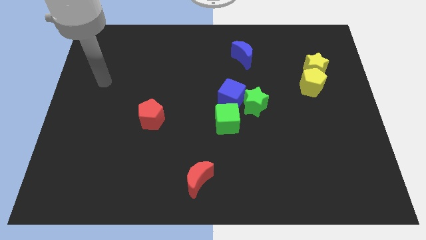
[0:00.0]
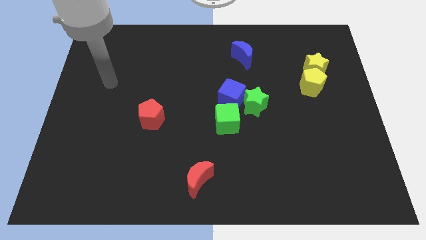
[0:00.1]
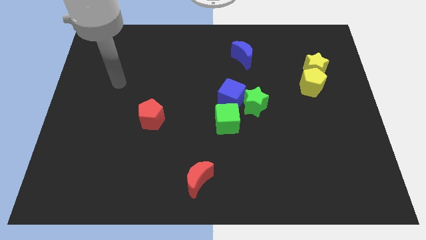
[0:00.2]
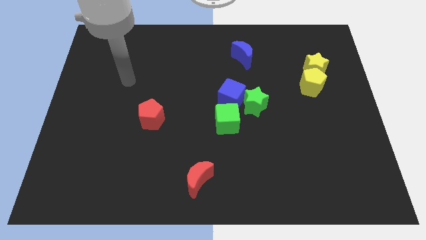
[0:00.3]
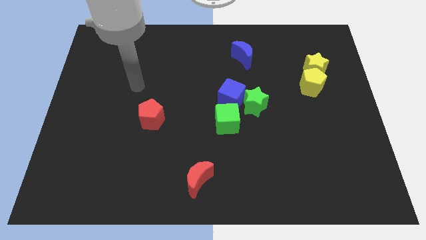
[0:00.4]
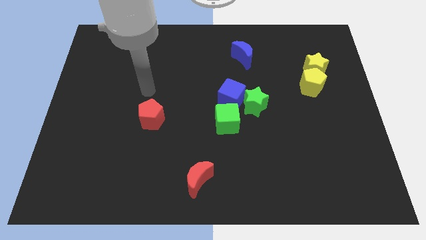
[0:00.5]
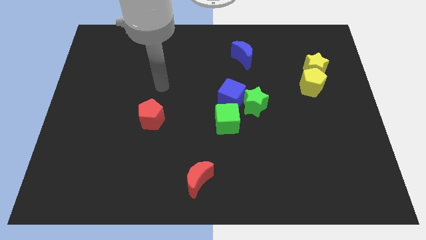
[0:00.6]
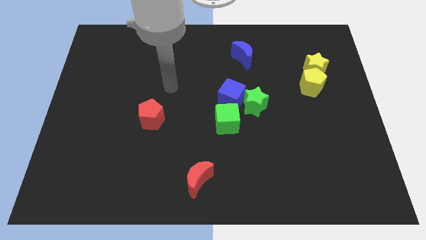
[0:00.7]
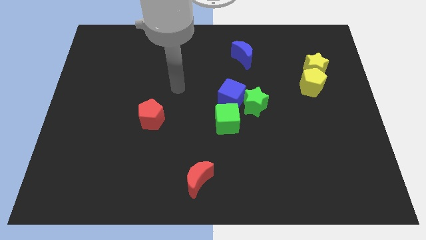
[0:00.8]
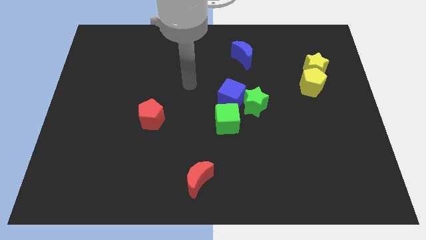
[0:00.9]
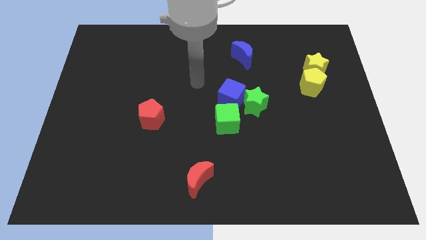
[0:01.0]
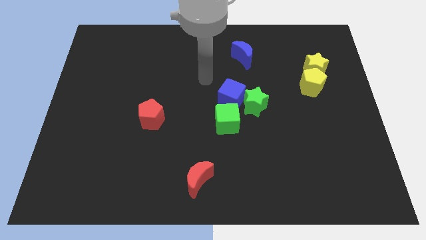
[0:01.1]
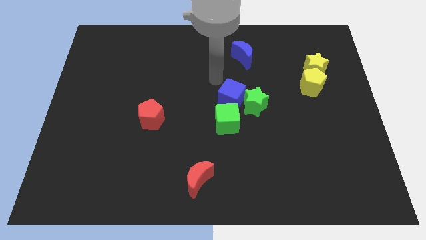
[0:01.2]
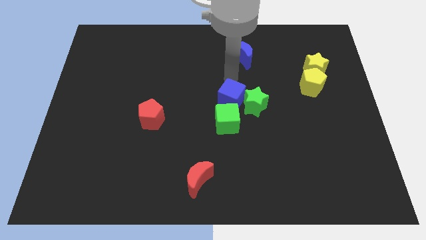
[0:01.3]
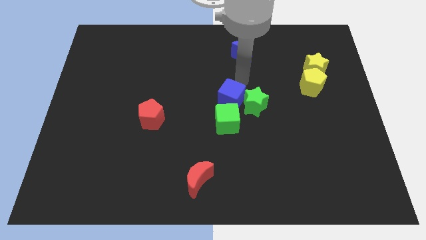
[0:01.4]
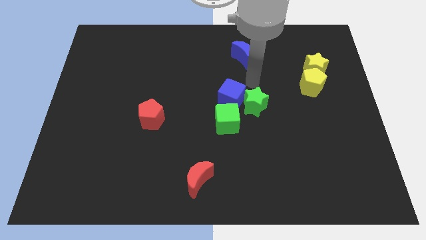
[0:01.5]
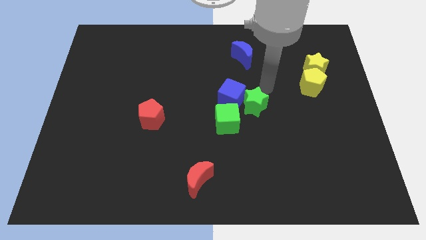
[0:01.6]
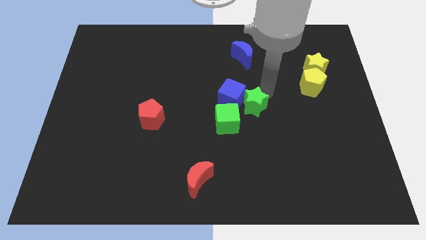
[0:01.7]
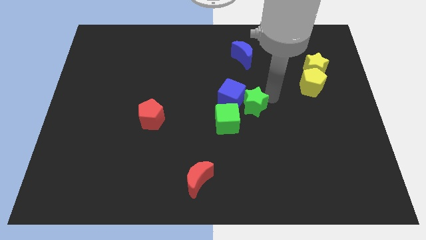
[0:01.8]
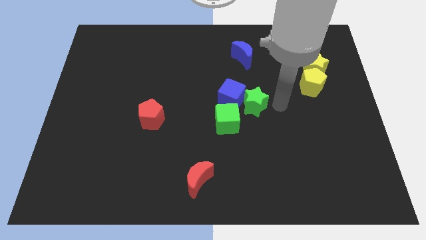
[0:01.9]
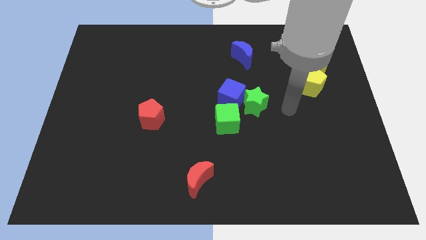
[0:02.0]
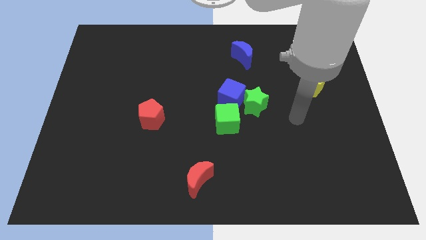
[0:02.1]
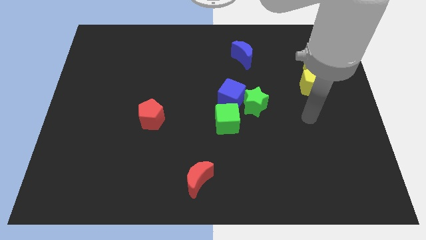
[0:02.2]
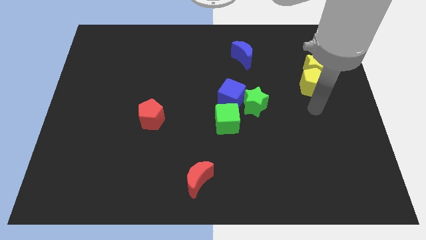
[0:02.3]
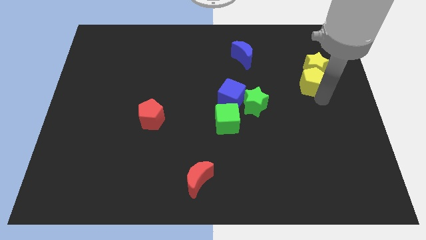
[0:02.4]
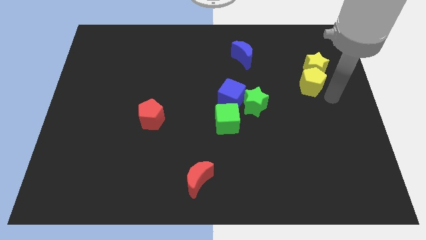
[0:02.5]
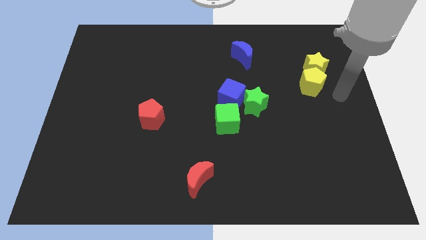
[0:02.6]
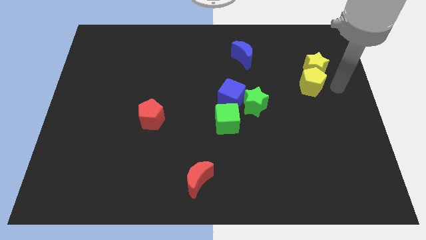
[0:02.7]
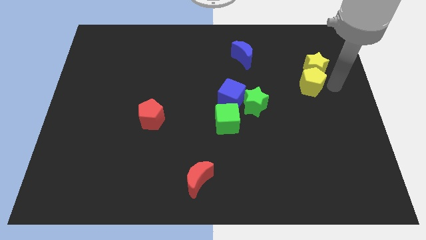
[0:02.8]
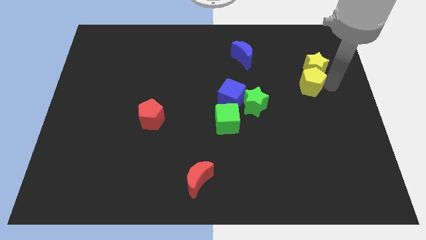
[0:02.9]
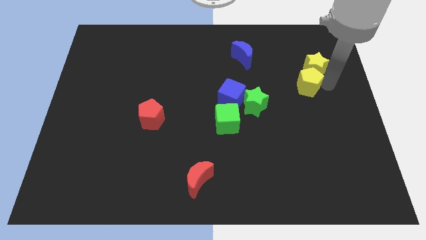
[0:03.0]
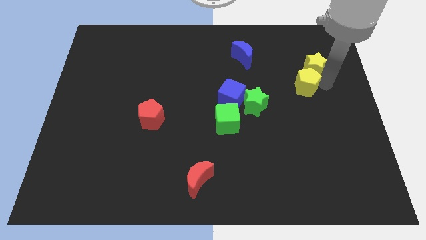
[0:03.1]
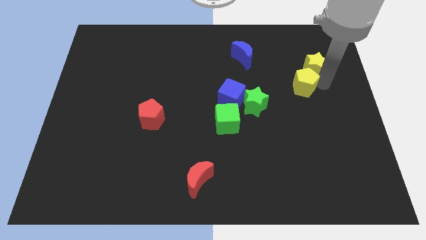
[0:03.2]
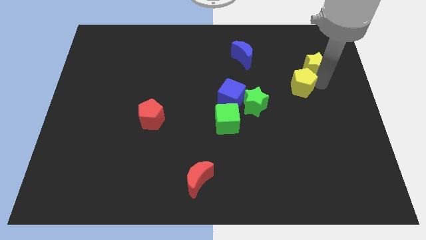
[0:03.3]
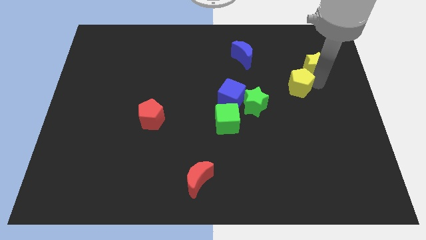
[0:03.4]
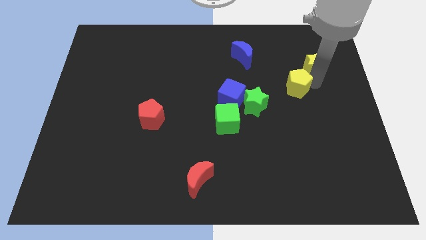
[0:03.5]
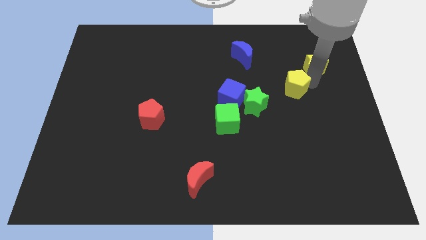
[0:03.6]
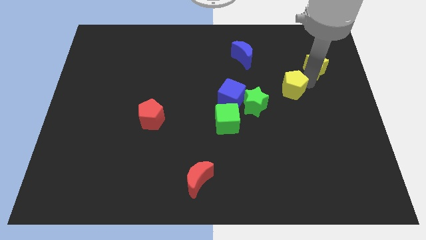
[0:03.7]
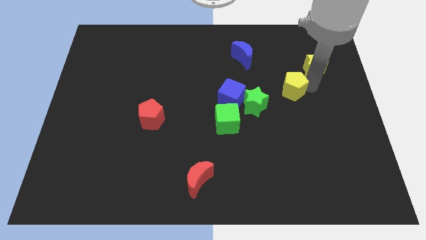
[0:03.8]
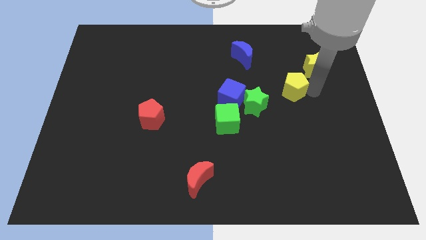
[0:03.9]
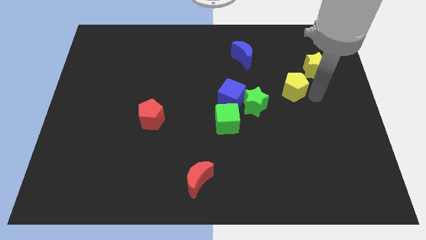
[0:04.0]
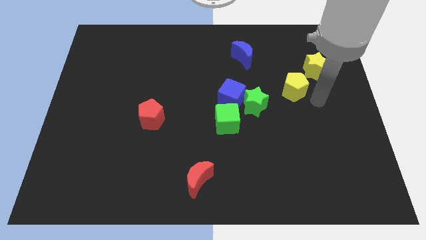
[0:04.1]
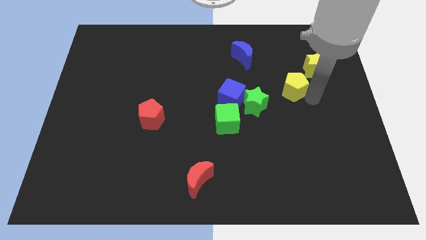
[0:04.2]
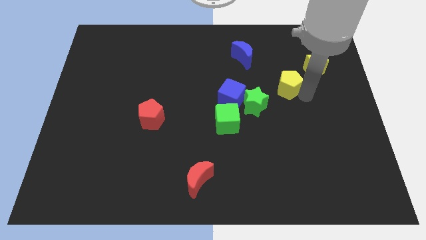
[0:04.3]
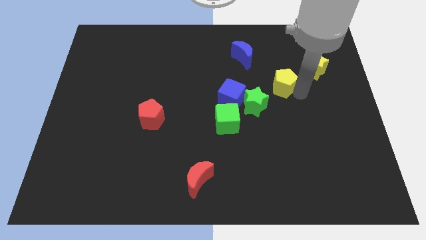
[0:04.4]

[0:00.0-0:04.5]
slightly slide the yellow pentagon to the left

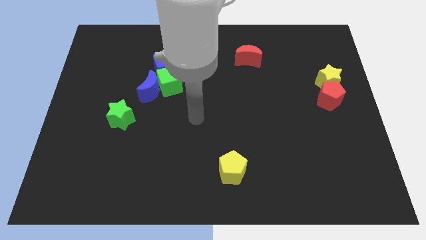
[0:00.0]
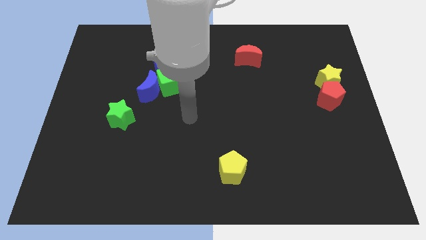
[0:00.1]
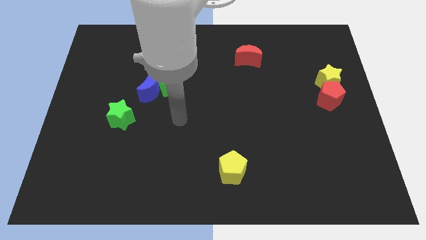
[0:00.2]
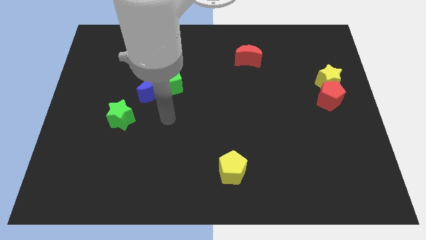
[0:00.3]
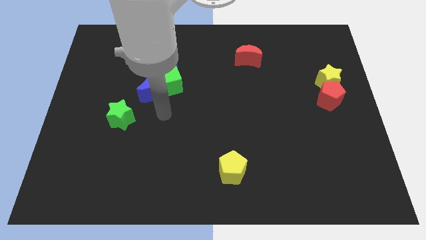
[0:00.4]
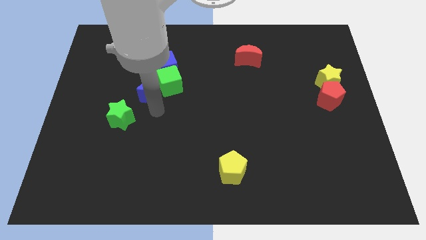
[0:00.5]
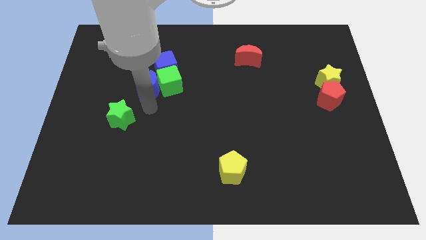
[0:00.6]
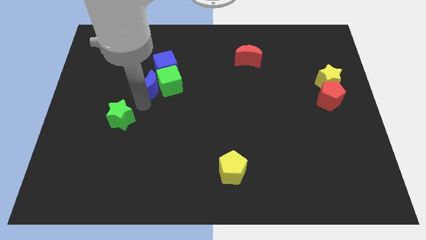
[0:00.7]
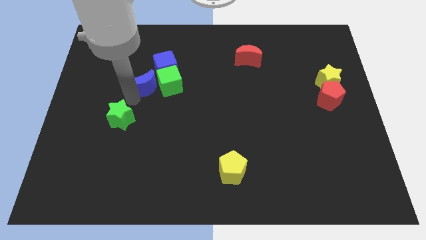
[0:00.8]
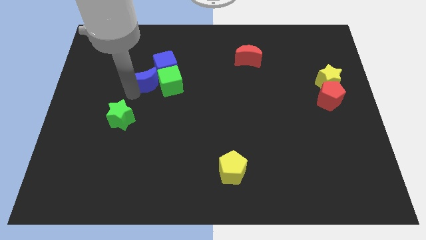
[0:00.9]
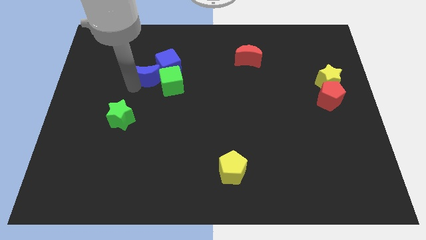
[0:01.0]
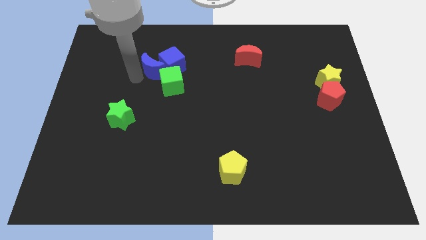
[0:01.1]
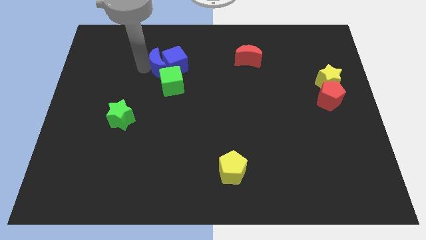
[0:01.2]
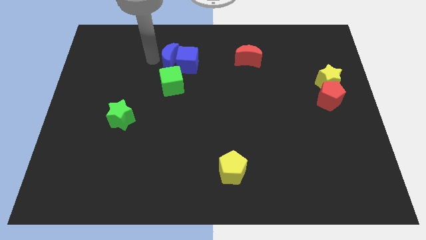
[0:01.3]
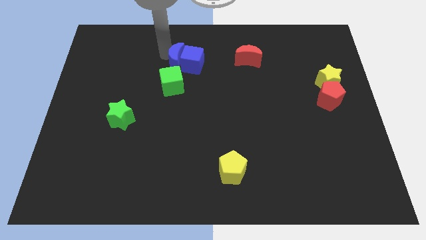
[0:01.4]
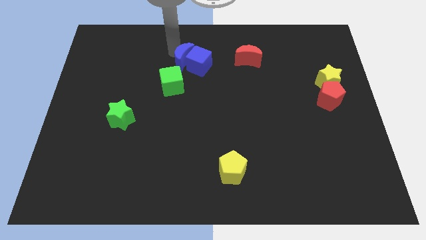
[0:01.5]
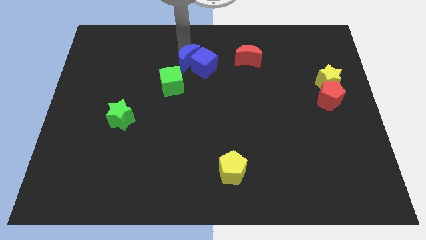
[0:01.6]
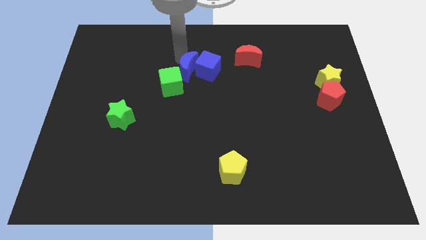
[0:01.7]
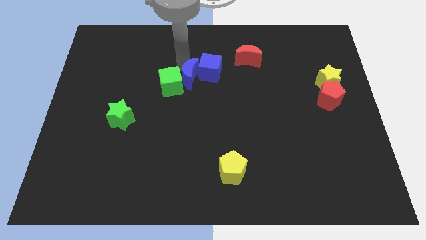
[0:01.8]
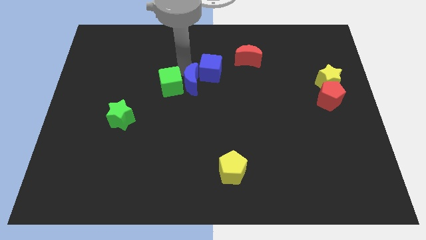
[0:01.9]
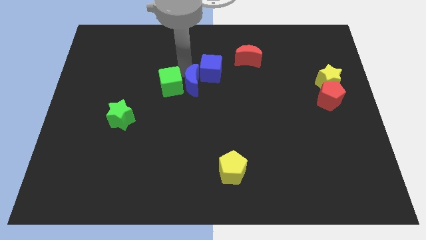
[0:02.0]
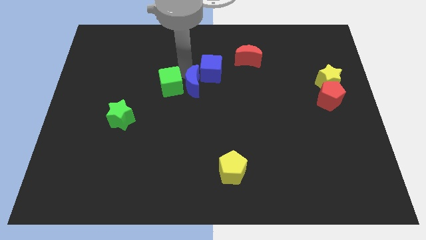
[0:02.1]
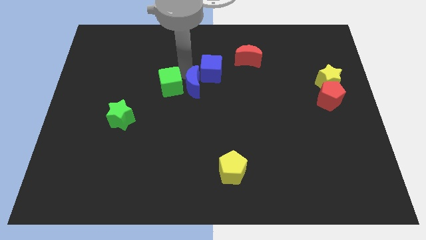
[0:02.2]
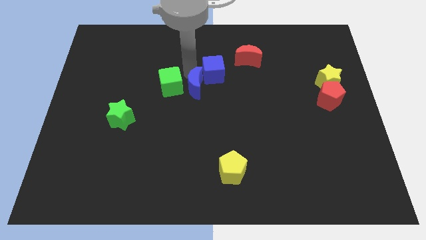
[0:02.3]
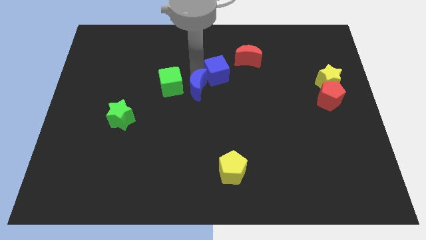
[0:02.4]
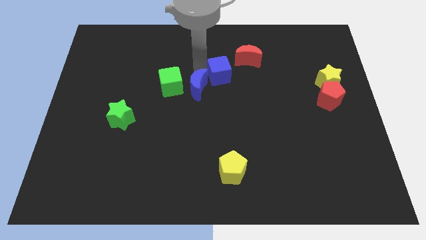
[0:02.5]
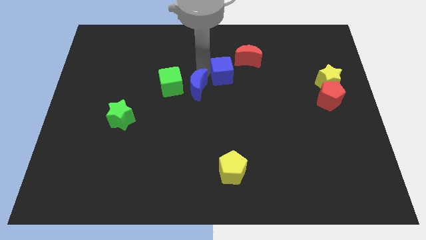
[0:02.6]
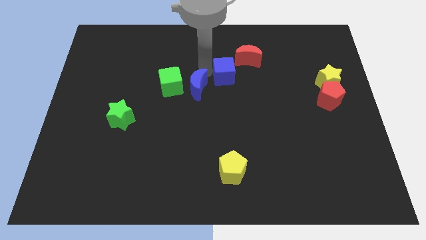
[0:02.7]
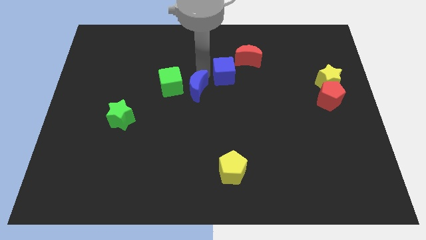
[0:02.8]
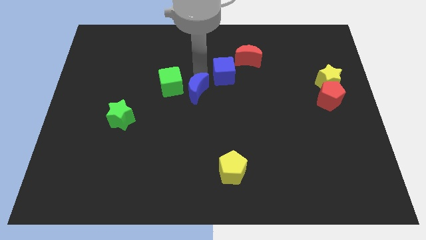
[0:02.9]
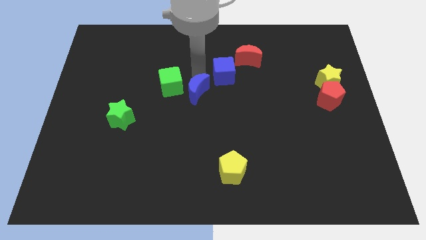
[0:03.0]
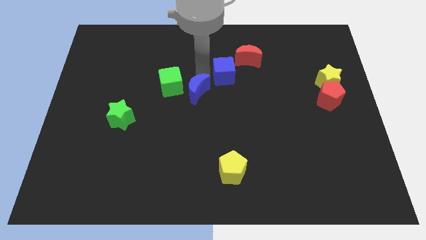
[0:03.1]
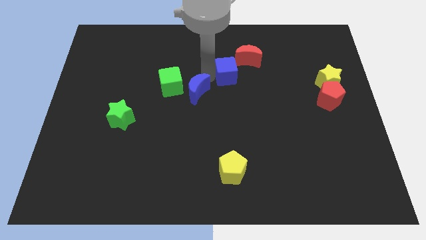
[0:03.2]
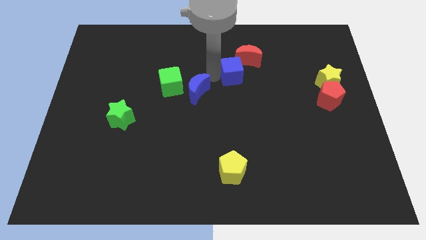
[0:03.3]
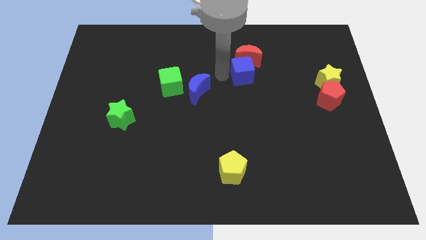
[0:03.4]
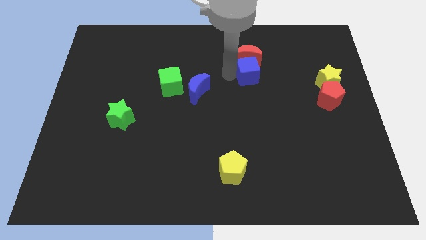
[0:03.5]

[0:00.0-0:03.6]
slide the blue cube to the right
